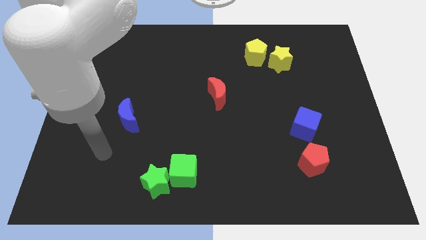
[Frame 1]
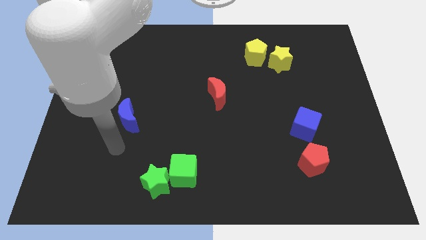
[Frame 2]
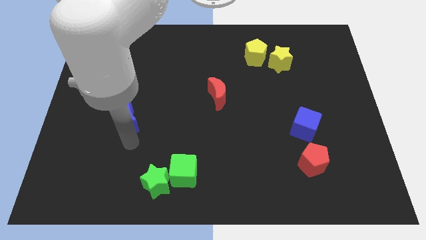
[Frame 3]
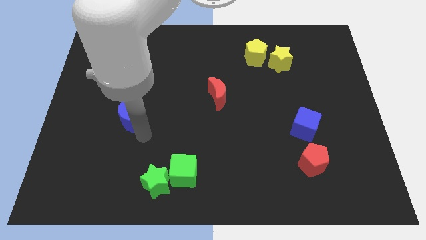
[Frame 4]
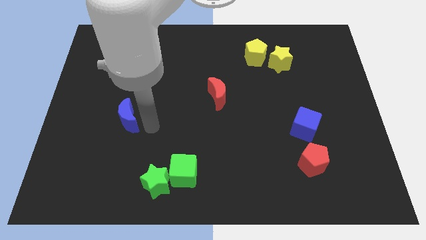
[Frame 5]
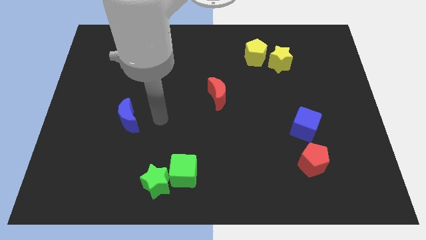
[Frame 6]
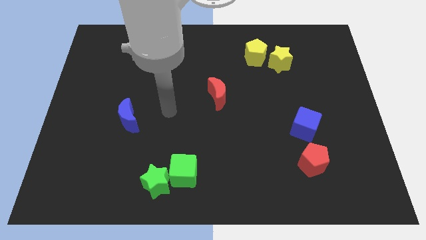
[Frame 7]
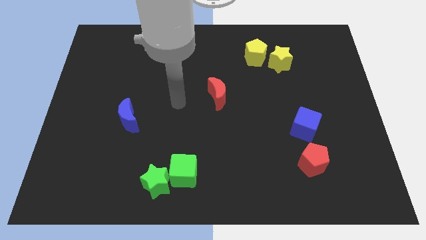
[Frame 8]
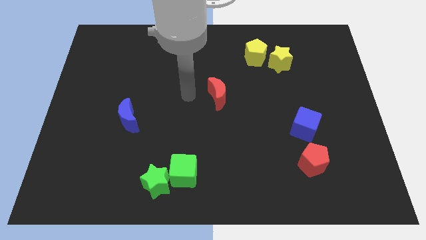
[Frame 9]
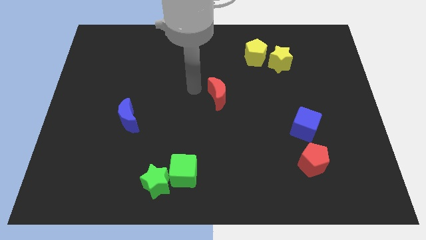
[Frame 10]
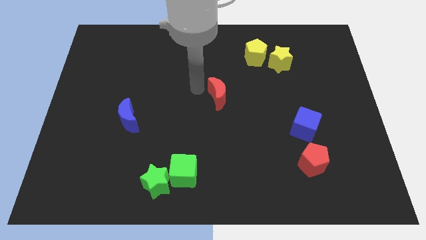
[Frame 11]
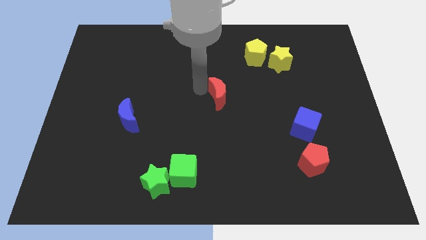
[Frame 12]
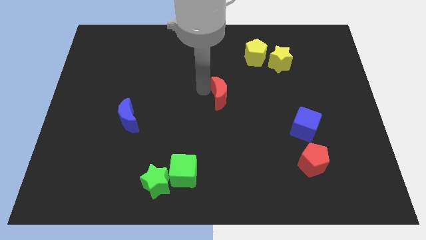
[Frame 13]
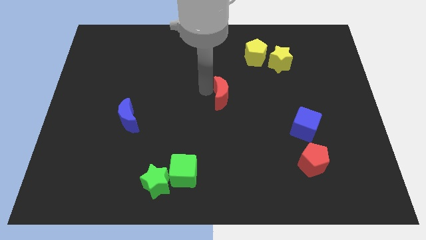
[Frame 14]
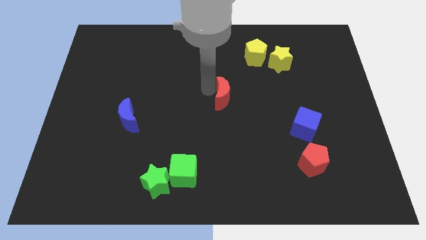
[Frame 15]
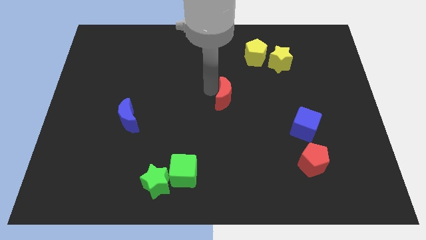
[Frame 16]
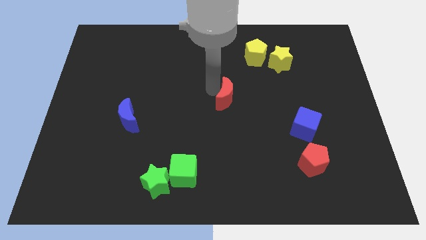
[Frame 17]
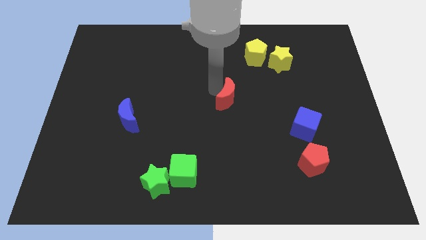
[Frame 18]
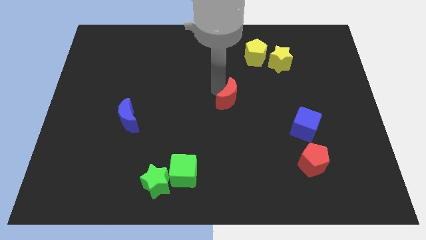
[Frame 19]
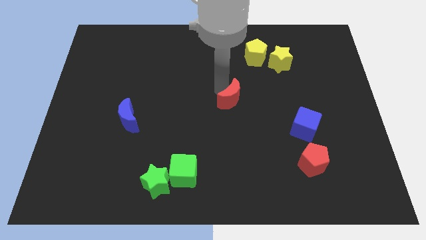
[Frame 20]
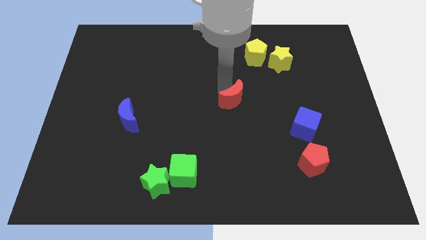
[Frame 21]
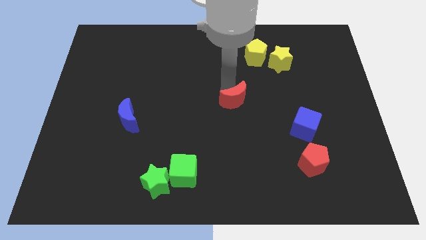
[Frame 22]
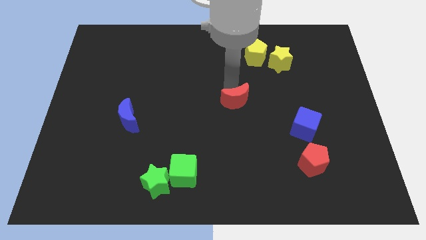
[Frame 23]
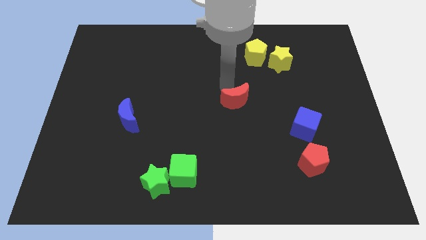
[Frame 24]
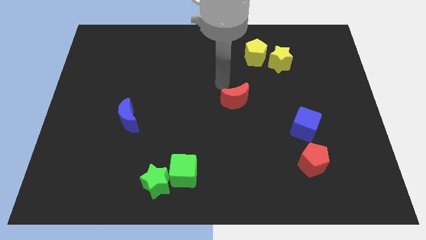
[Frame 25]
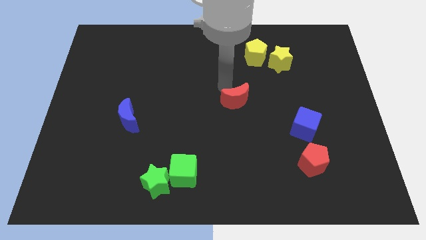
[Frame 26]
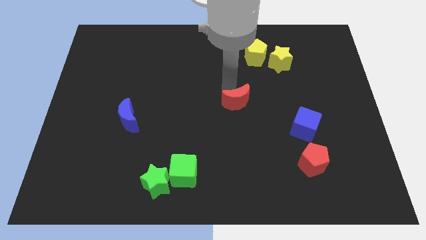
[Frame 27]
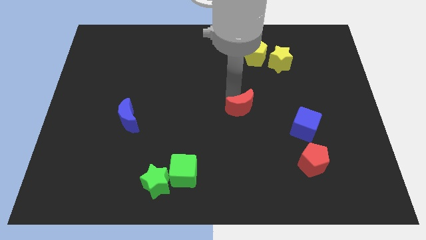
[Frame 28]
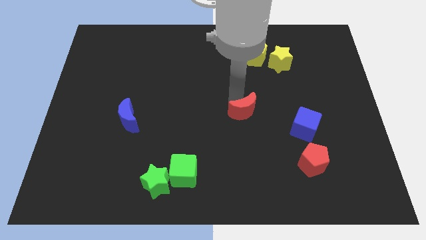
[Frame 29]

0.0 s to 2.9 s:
slightly slide the red moon downwards and right

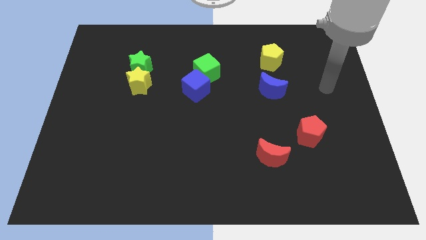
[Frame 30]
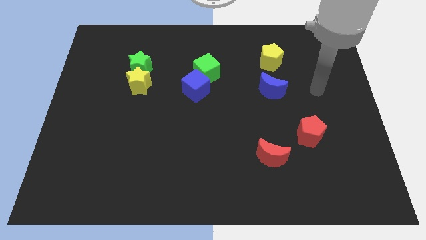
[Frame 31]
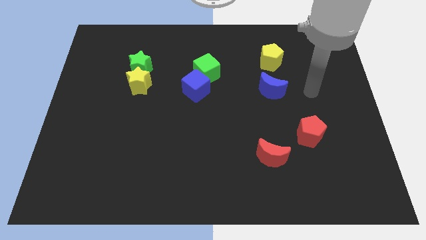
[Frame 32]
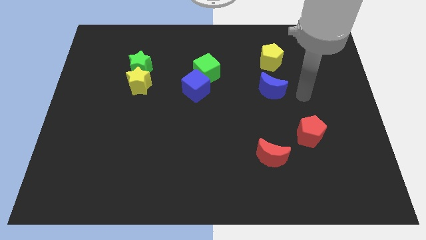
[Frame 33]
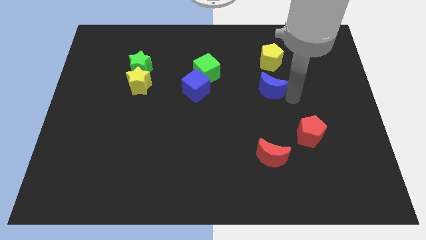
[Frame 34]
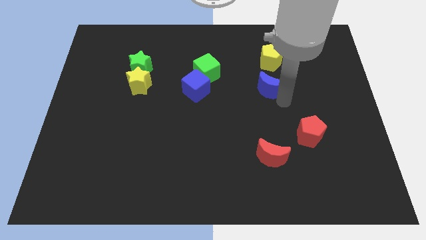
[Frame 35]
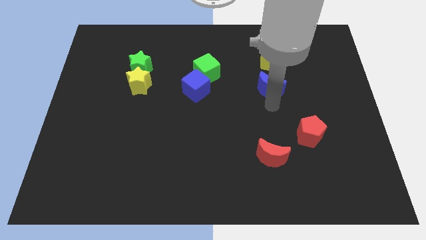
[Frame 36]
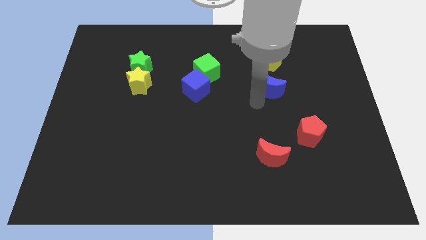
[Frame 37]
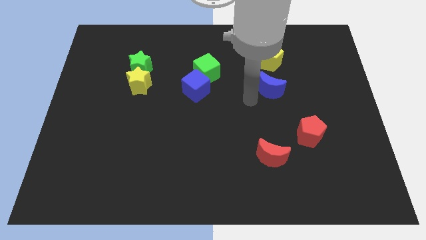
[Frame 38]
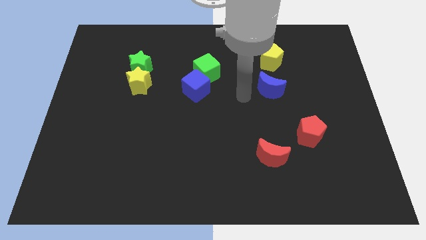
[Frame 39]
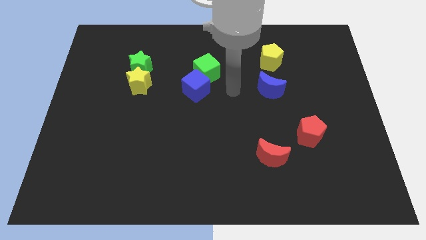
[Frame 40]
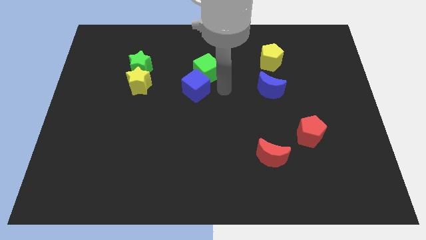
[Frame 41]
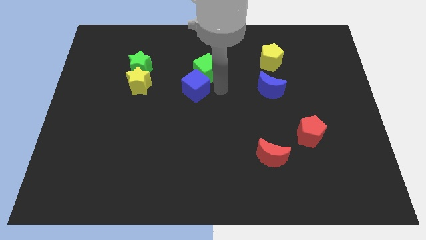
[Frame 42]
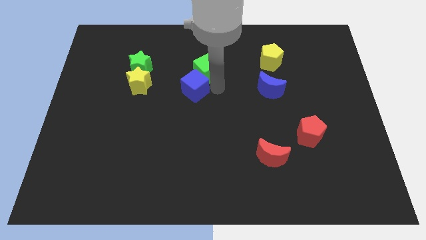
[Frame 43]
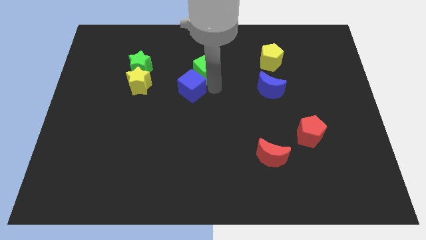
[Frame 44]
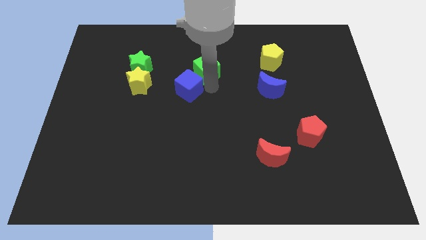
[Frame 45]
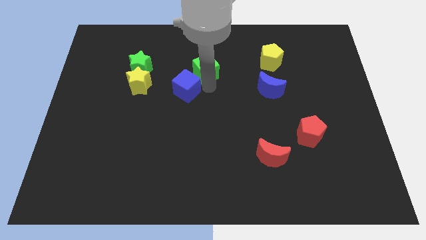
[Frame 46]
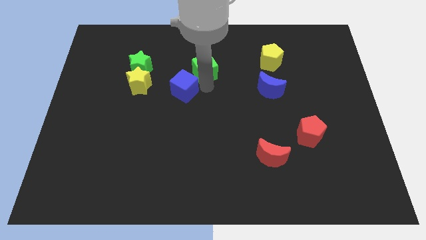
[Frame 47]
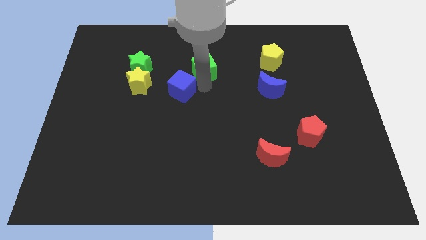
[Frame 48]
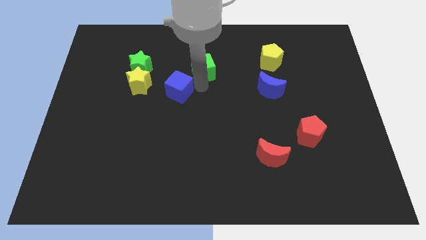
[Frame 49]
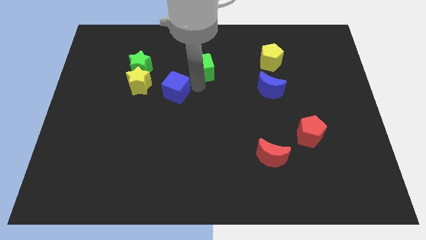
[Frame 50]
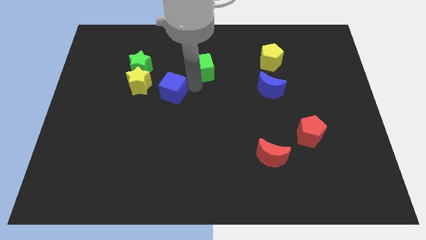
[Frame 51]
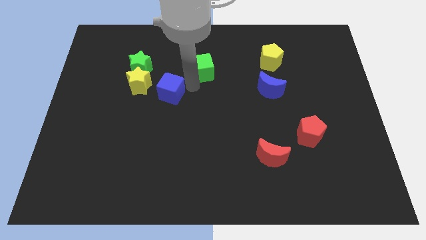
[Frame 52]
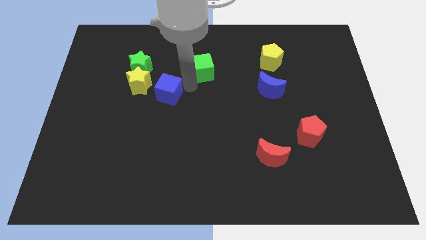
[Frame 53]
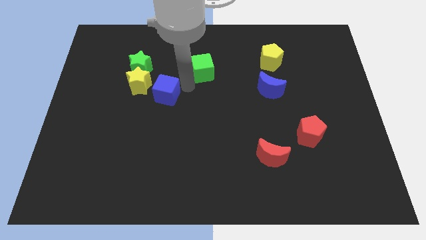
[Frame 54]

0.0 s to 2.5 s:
slightly move the blue cube to the left

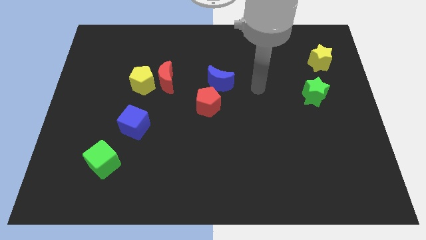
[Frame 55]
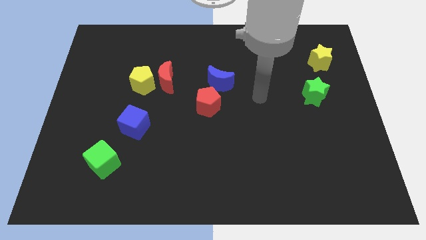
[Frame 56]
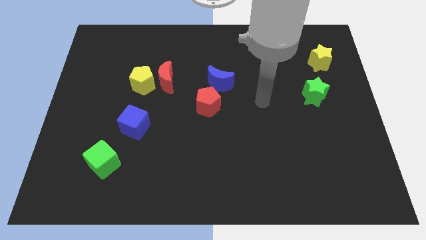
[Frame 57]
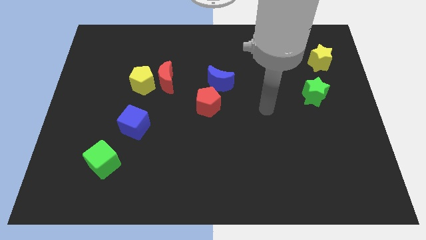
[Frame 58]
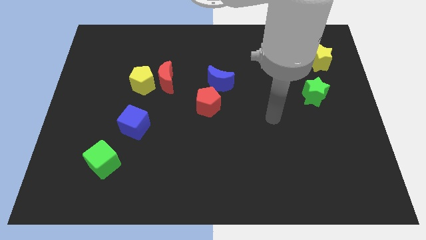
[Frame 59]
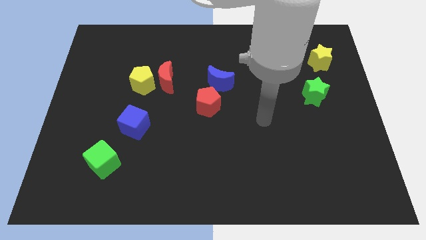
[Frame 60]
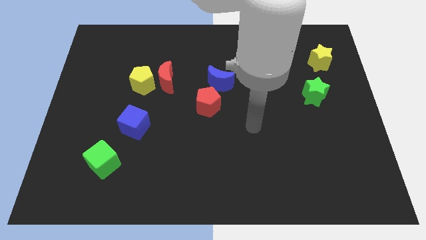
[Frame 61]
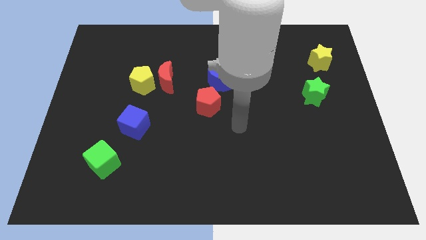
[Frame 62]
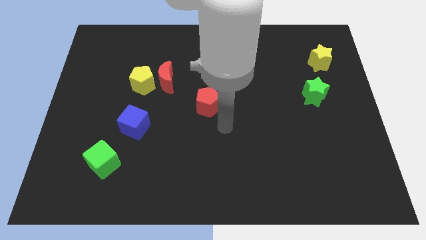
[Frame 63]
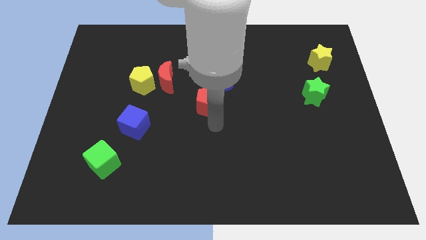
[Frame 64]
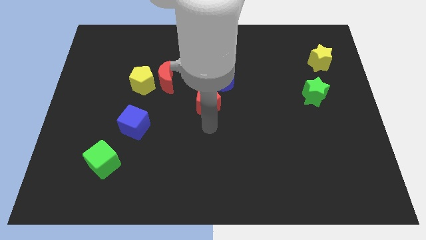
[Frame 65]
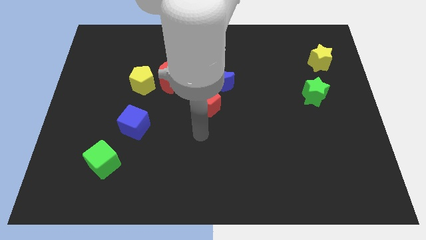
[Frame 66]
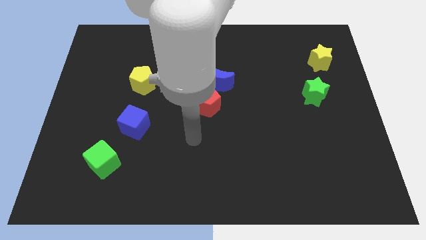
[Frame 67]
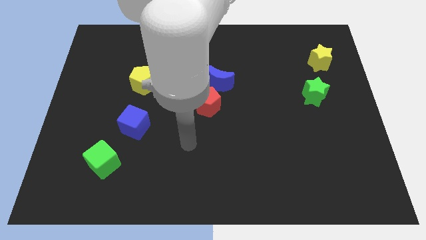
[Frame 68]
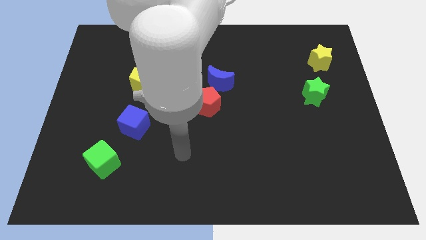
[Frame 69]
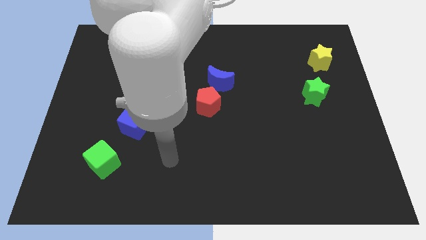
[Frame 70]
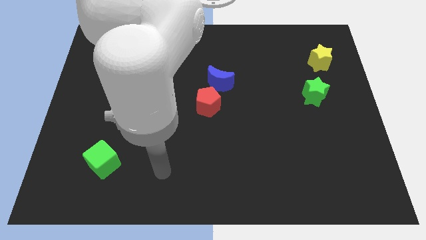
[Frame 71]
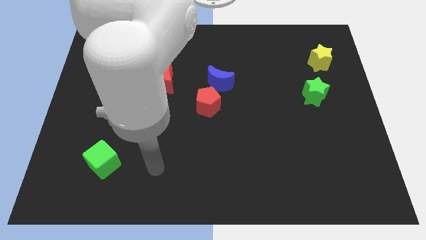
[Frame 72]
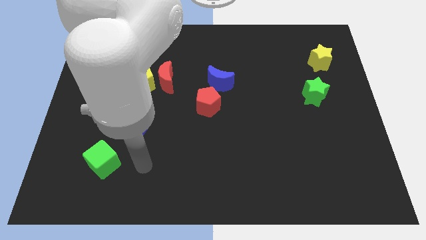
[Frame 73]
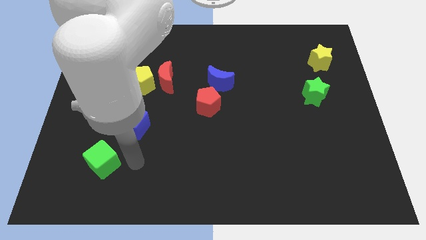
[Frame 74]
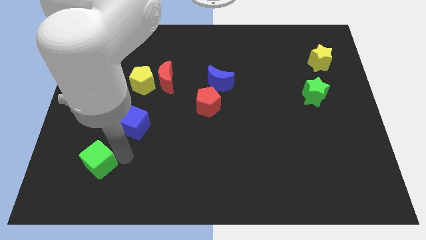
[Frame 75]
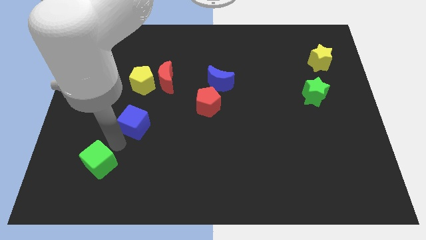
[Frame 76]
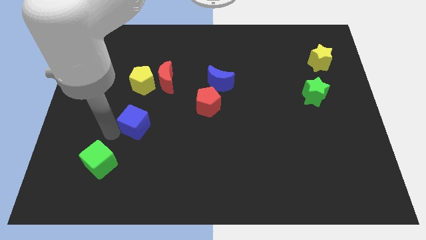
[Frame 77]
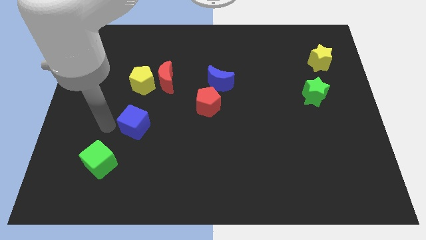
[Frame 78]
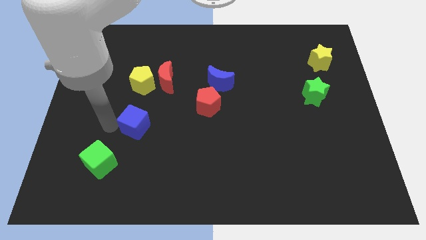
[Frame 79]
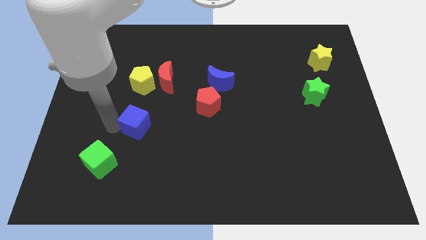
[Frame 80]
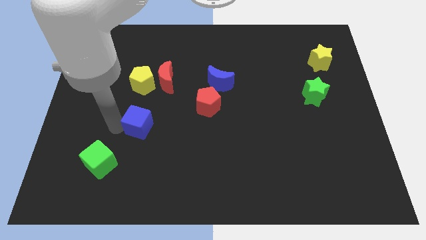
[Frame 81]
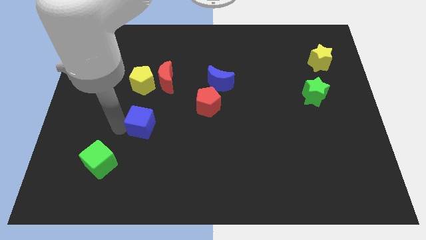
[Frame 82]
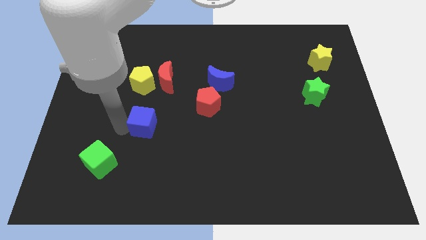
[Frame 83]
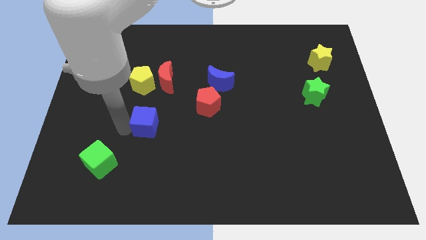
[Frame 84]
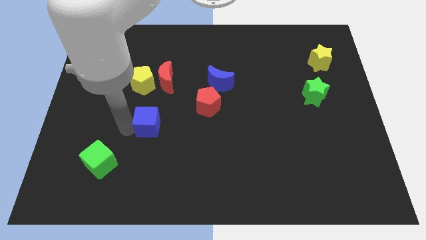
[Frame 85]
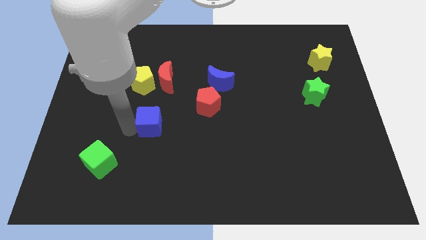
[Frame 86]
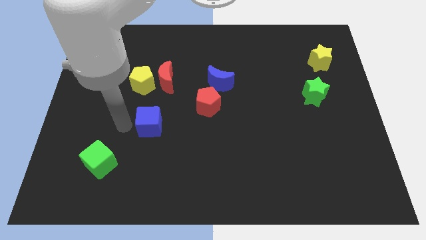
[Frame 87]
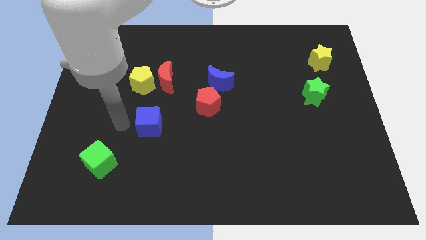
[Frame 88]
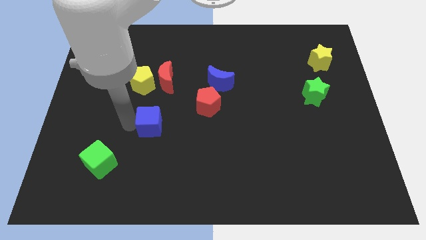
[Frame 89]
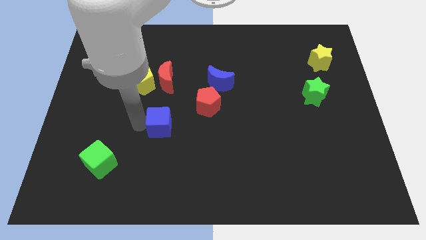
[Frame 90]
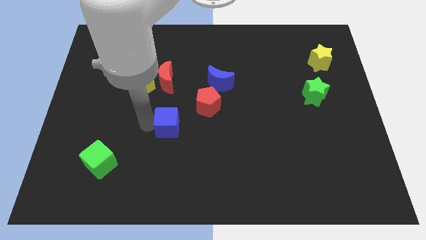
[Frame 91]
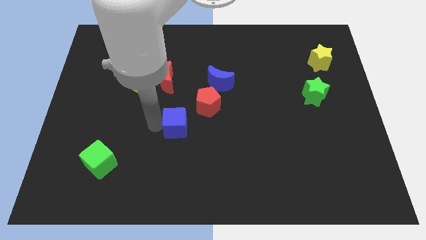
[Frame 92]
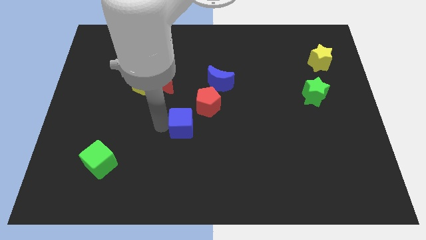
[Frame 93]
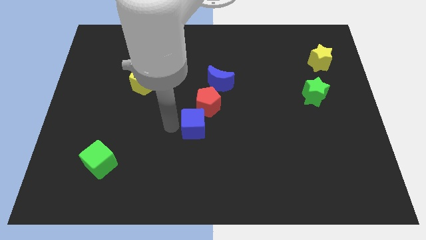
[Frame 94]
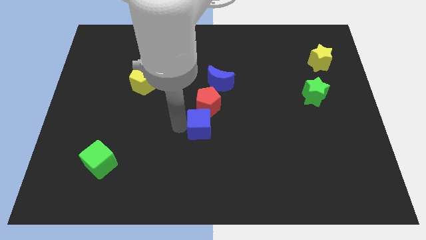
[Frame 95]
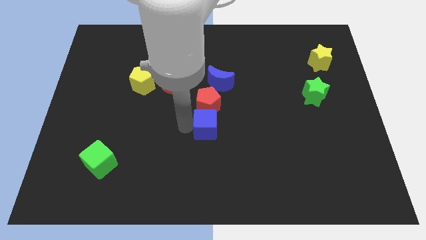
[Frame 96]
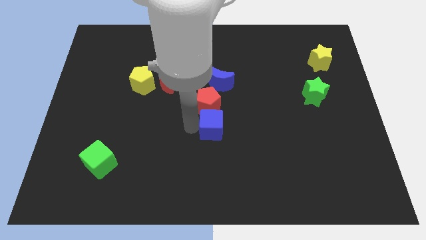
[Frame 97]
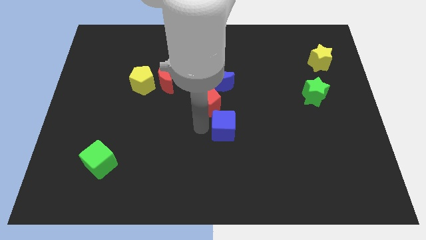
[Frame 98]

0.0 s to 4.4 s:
push the blue cube right
